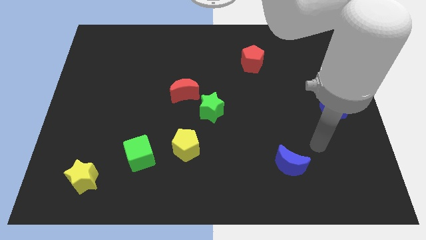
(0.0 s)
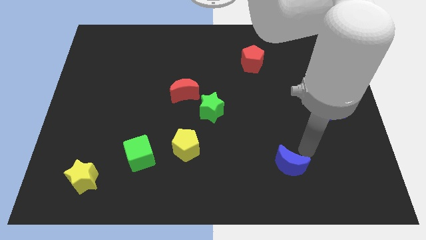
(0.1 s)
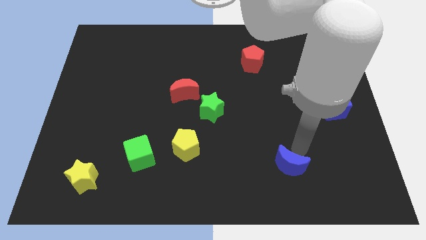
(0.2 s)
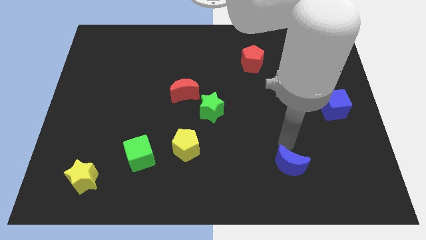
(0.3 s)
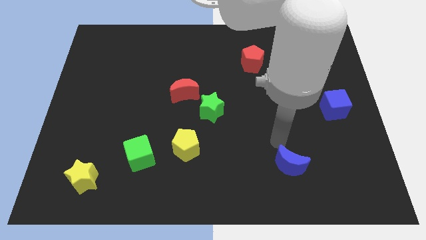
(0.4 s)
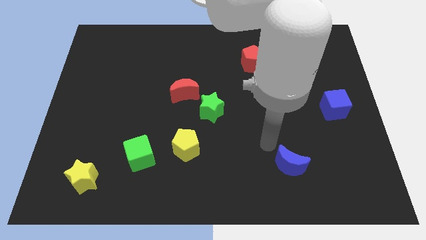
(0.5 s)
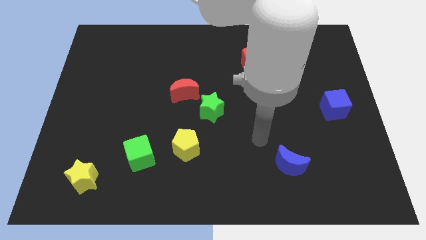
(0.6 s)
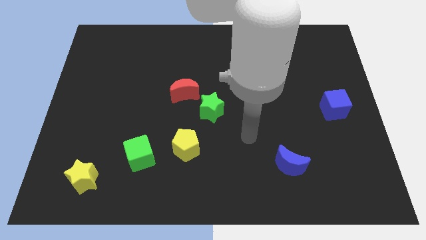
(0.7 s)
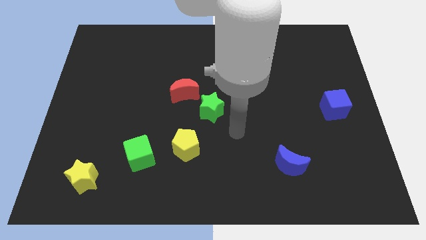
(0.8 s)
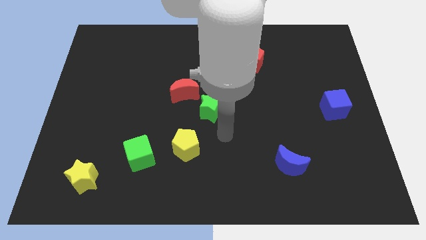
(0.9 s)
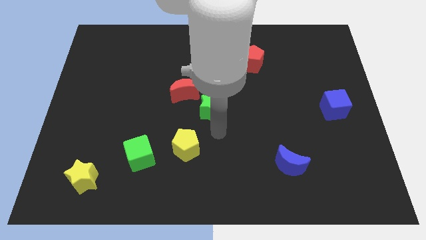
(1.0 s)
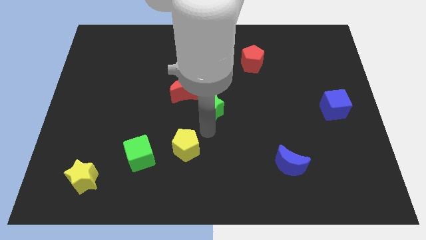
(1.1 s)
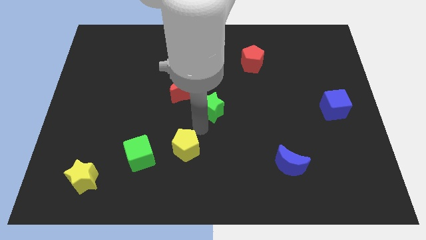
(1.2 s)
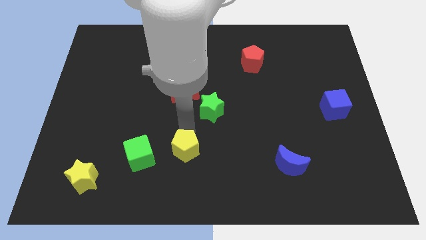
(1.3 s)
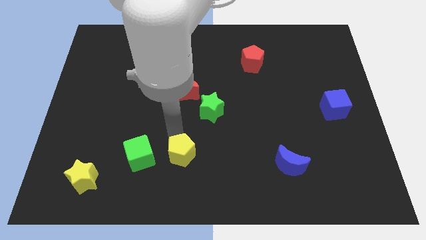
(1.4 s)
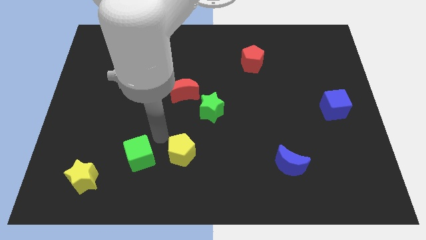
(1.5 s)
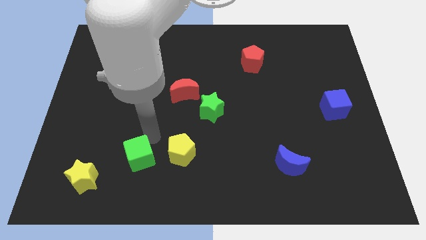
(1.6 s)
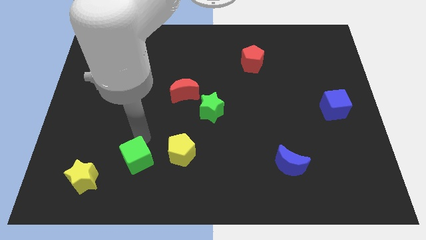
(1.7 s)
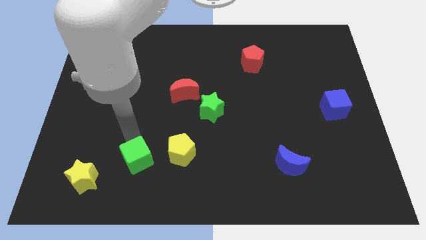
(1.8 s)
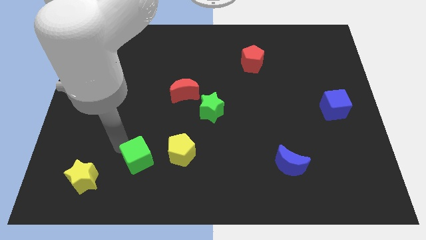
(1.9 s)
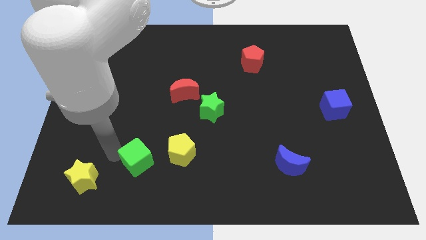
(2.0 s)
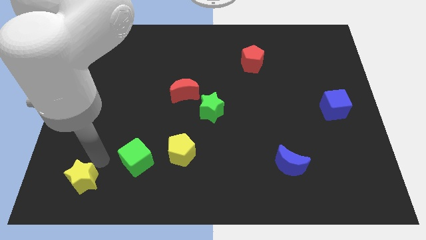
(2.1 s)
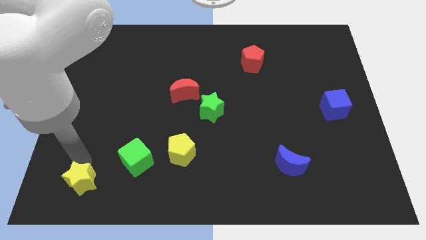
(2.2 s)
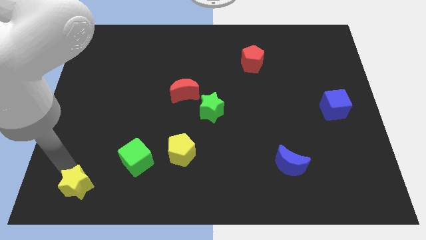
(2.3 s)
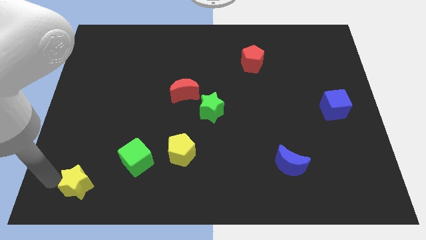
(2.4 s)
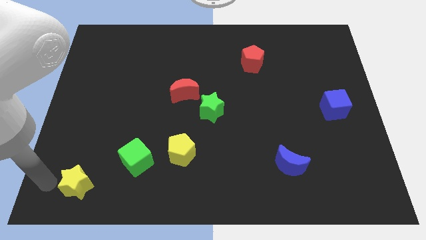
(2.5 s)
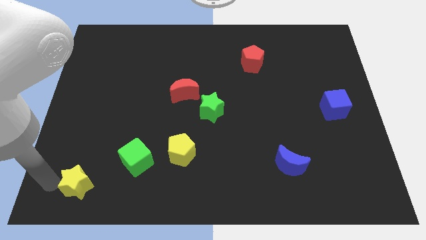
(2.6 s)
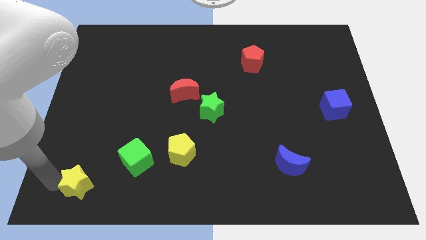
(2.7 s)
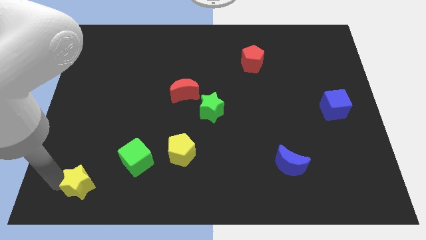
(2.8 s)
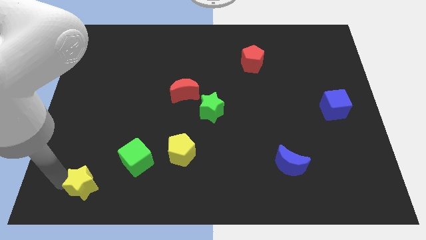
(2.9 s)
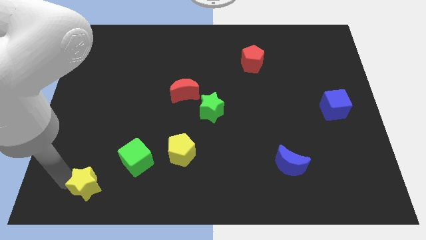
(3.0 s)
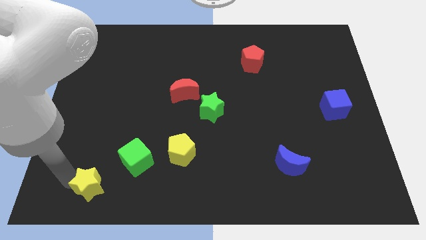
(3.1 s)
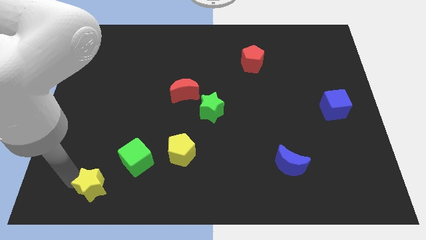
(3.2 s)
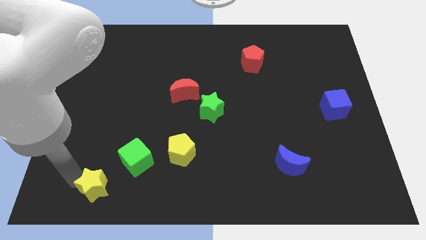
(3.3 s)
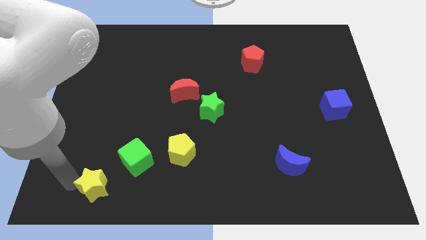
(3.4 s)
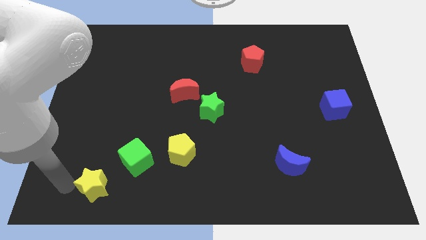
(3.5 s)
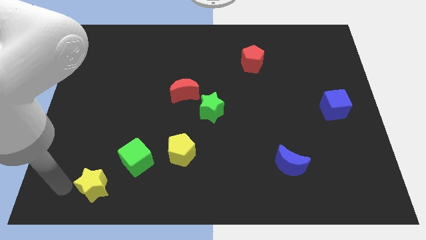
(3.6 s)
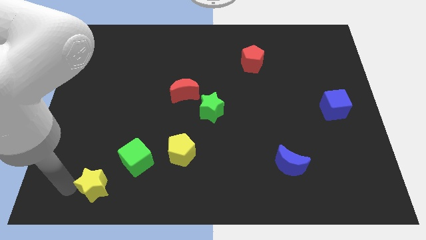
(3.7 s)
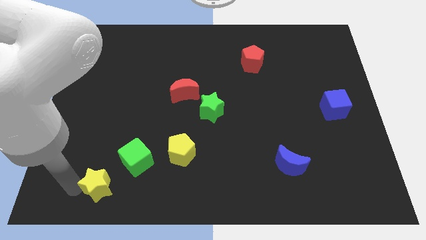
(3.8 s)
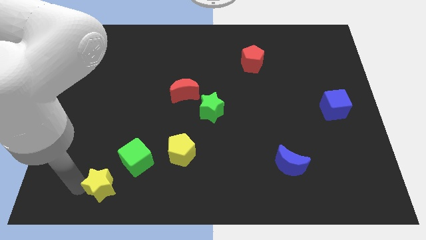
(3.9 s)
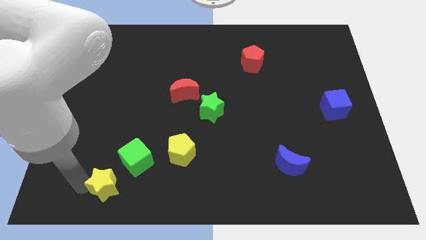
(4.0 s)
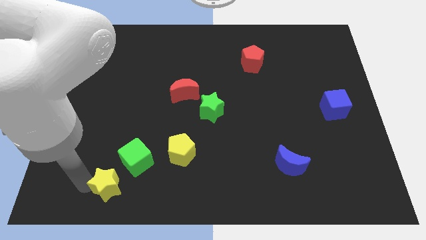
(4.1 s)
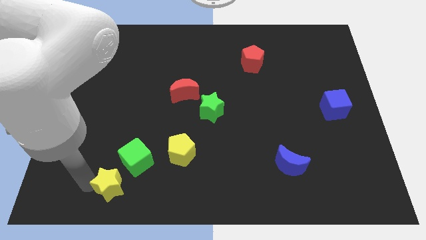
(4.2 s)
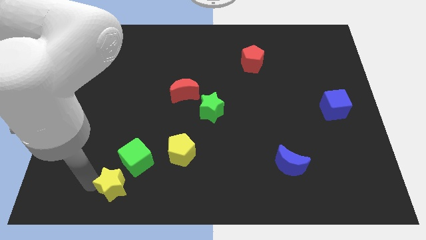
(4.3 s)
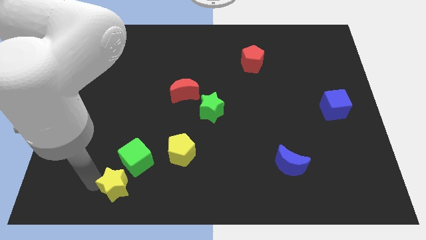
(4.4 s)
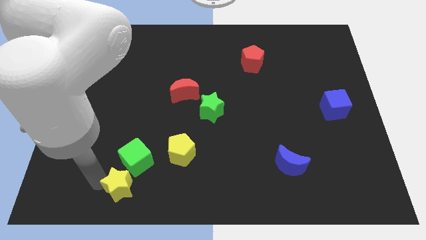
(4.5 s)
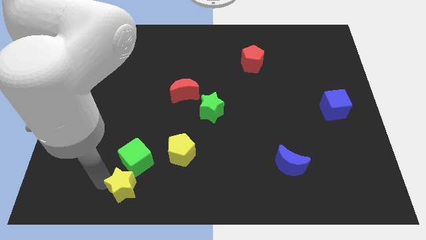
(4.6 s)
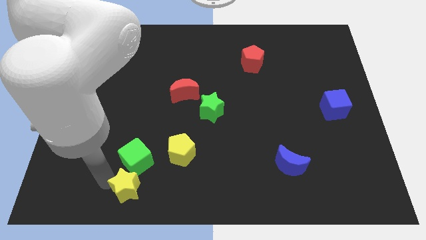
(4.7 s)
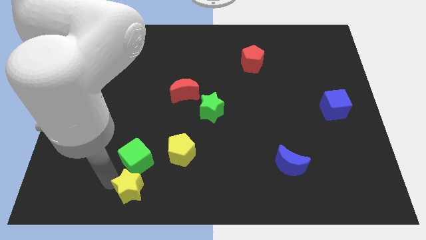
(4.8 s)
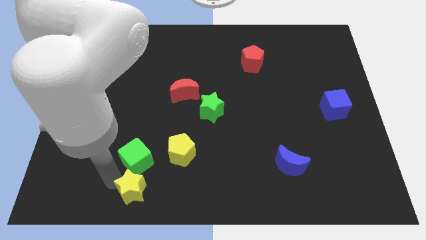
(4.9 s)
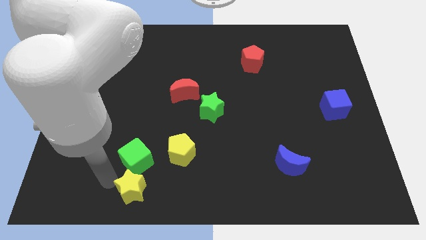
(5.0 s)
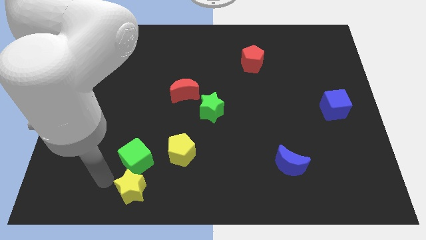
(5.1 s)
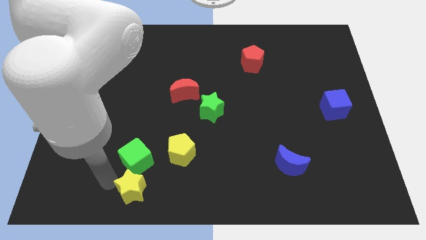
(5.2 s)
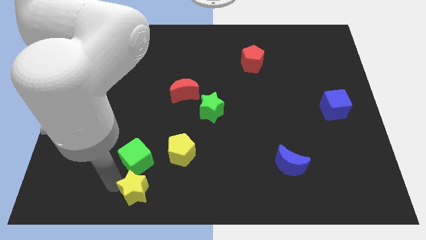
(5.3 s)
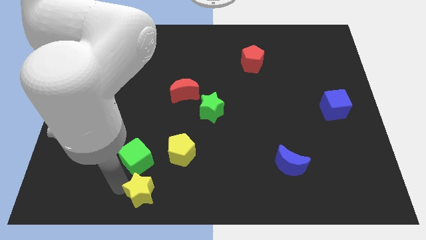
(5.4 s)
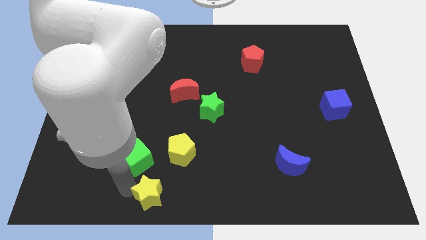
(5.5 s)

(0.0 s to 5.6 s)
move the yellow star to the bottom side
